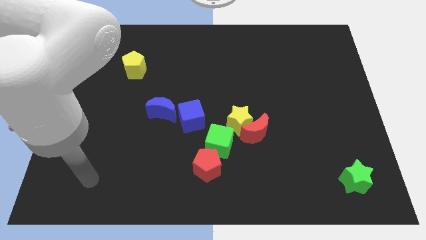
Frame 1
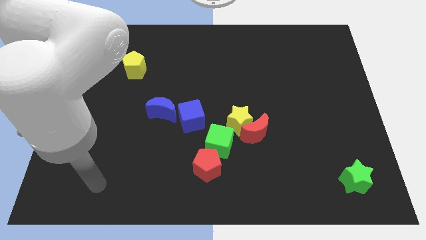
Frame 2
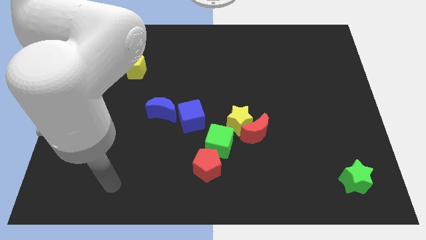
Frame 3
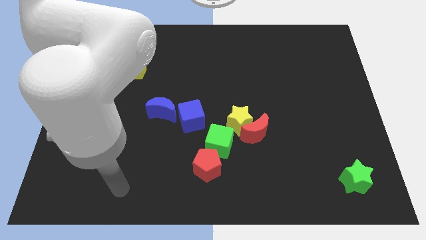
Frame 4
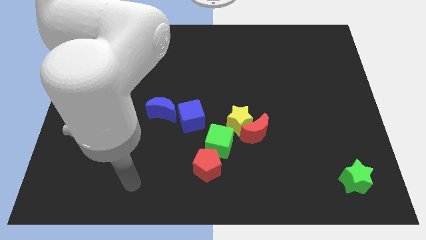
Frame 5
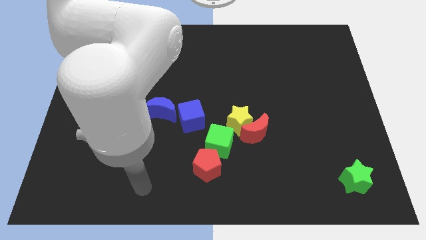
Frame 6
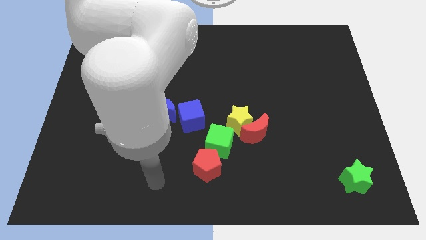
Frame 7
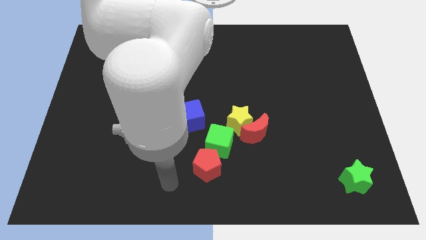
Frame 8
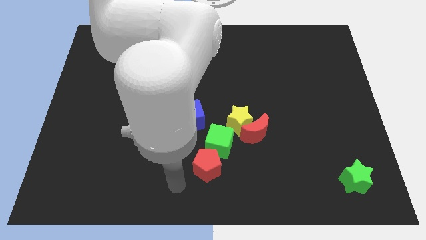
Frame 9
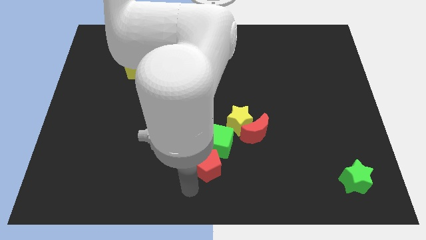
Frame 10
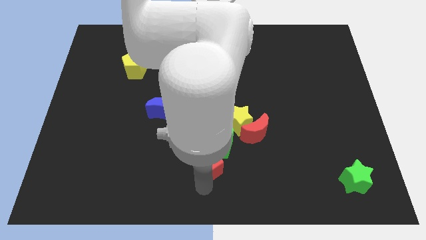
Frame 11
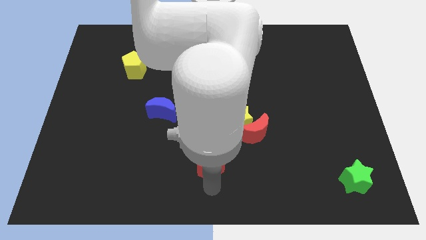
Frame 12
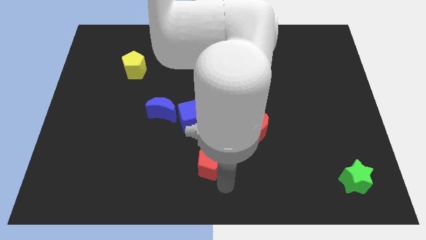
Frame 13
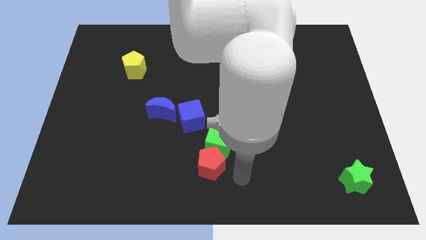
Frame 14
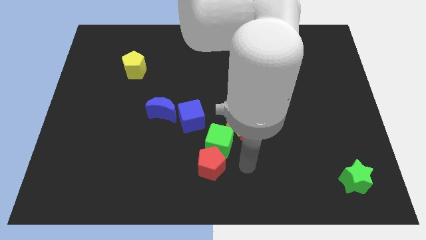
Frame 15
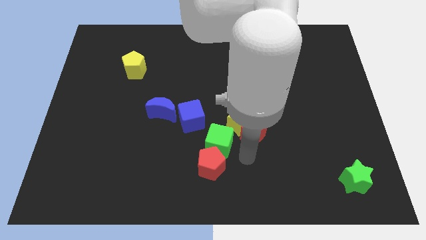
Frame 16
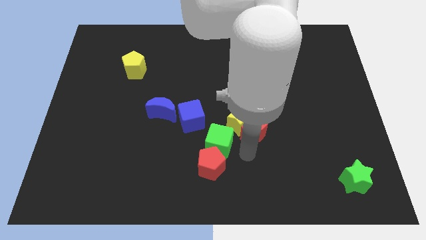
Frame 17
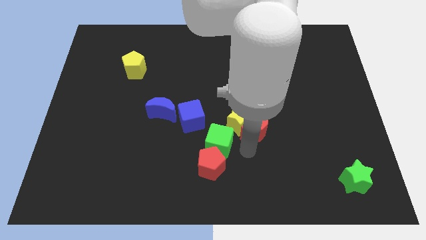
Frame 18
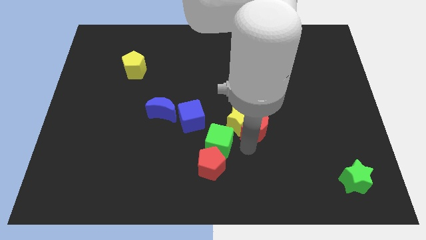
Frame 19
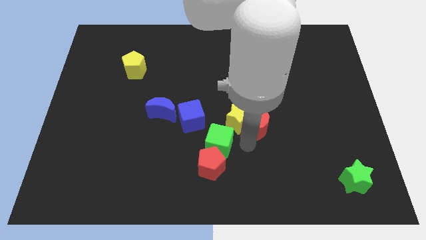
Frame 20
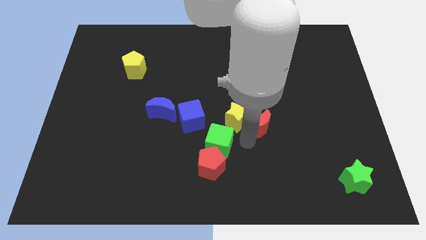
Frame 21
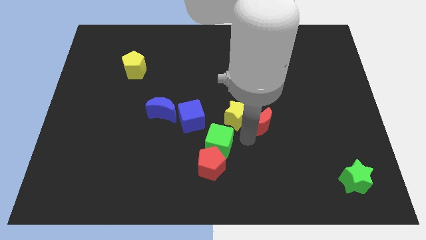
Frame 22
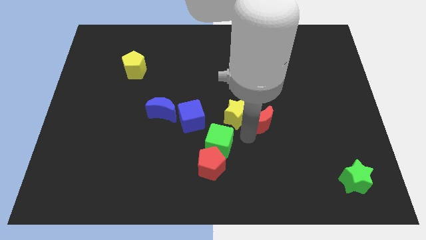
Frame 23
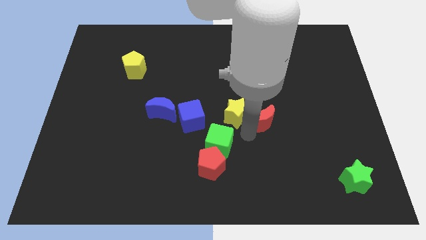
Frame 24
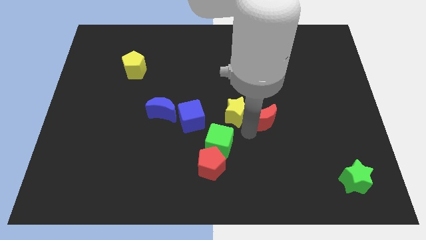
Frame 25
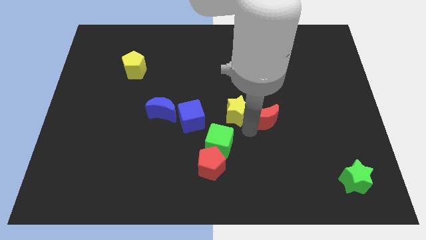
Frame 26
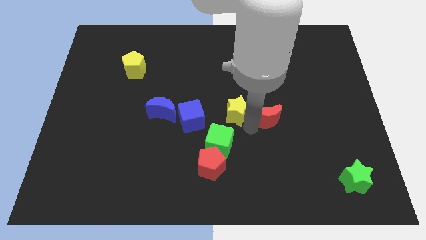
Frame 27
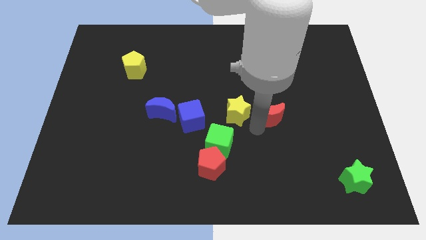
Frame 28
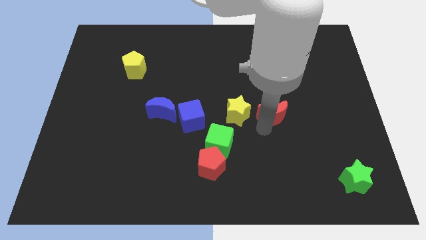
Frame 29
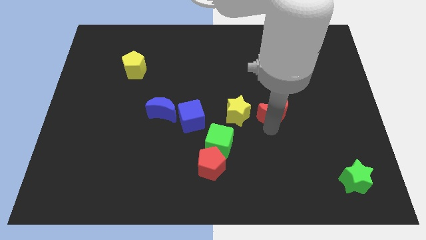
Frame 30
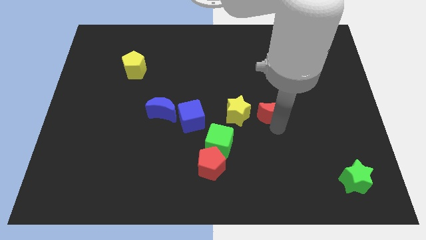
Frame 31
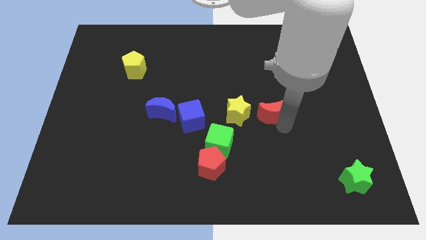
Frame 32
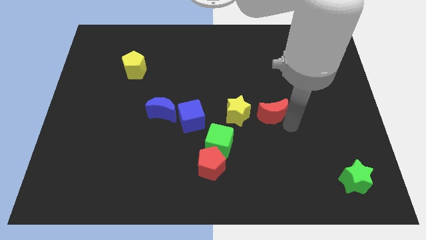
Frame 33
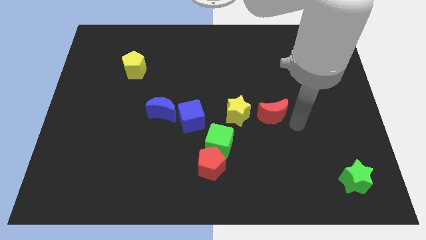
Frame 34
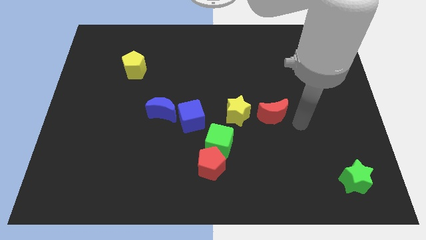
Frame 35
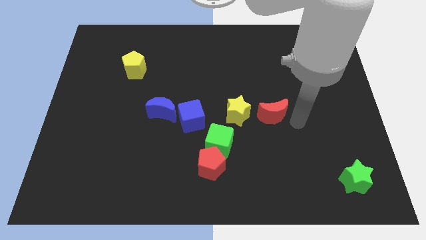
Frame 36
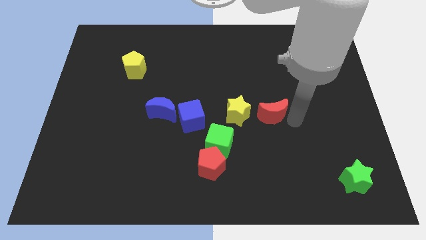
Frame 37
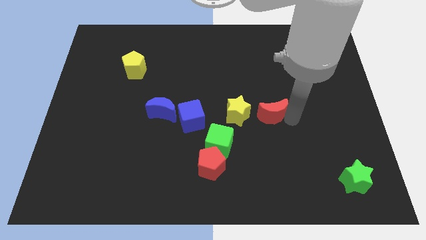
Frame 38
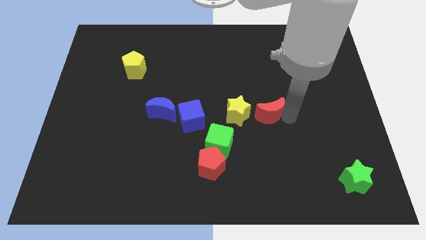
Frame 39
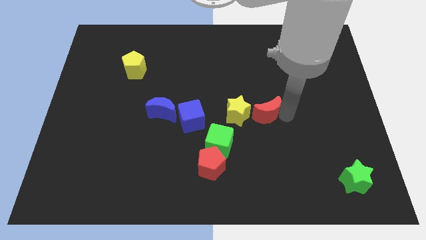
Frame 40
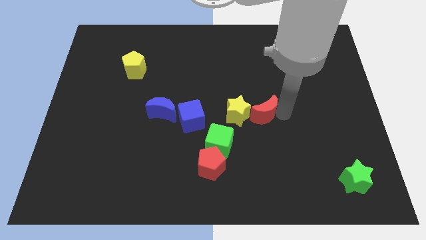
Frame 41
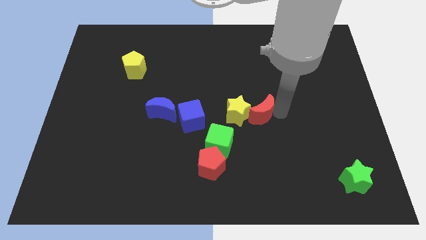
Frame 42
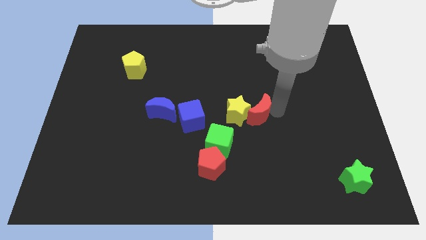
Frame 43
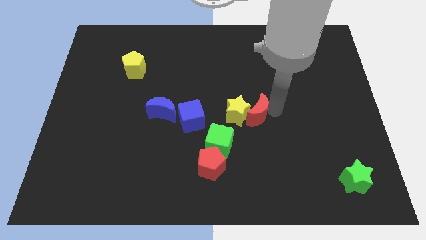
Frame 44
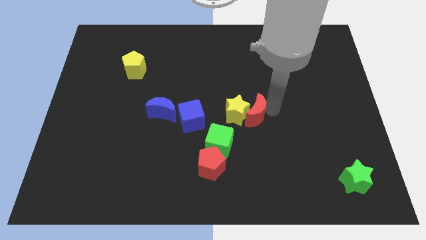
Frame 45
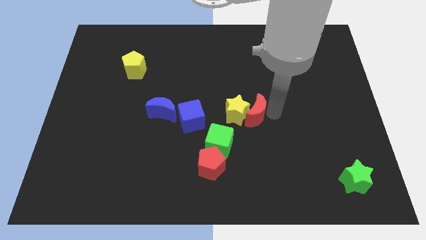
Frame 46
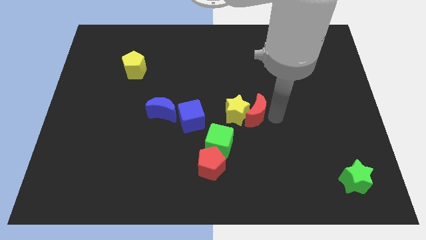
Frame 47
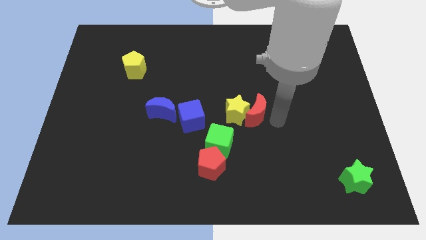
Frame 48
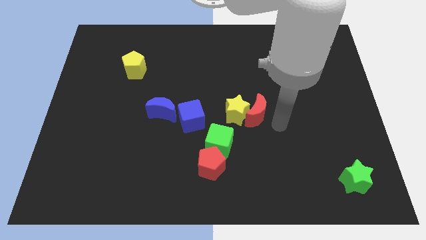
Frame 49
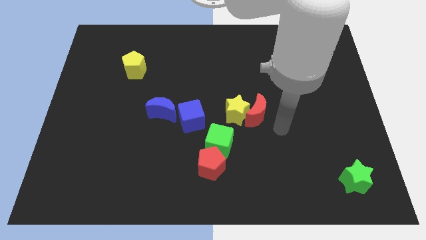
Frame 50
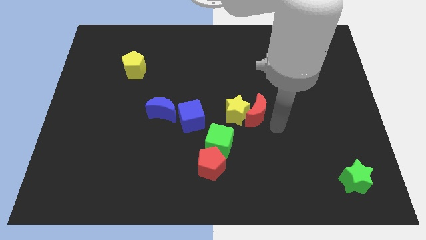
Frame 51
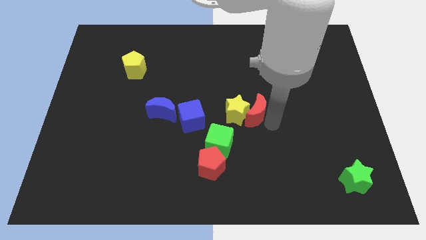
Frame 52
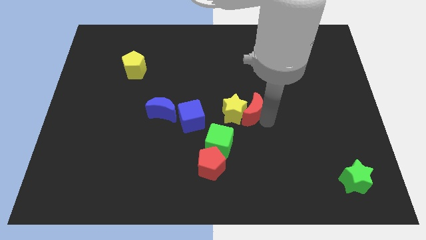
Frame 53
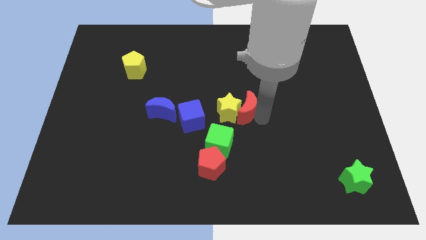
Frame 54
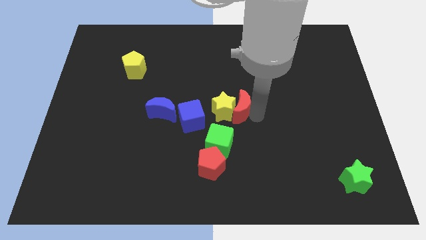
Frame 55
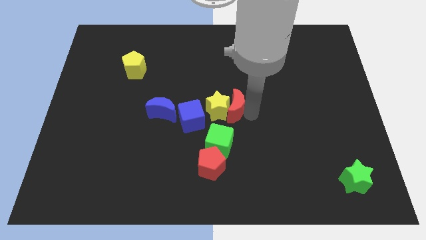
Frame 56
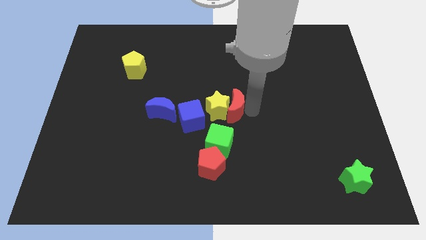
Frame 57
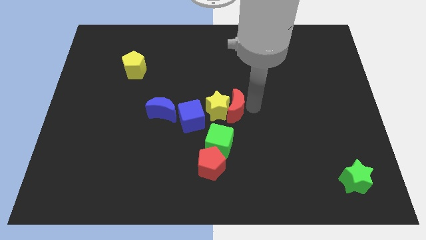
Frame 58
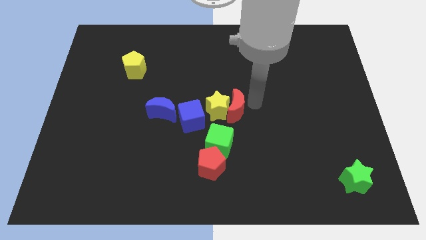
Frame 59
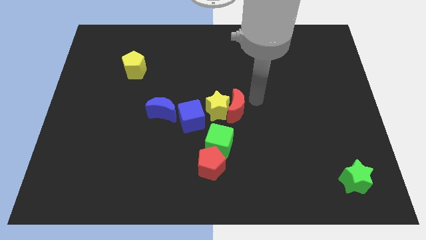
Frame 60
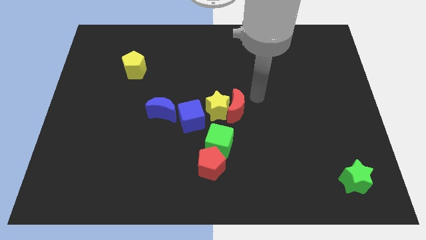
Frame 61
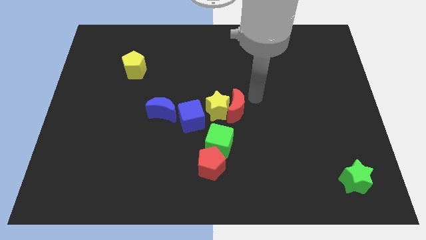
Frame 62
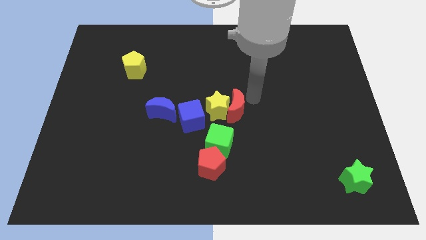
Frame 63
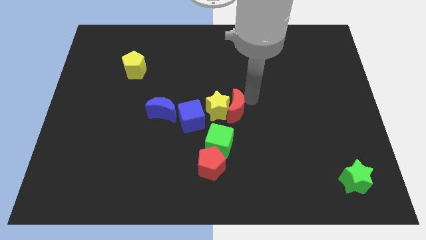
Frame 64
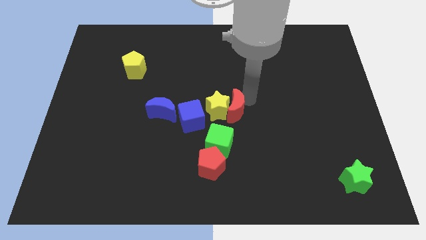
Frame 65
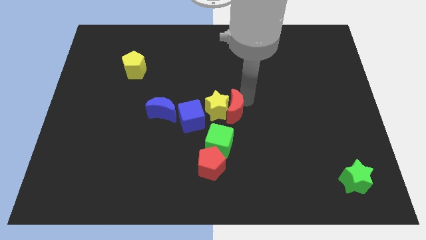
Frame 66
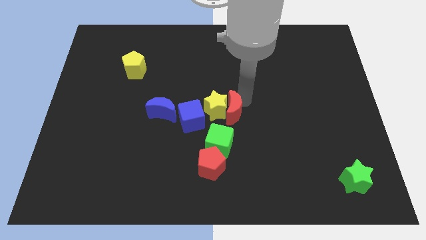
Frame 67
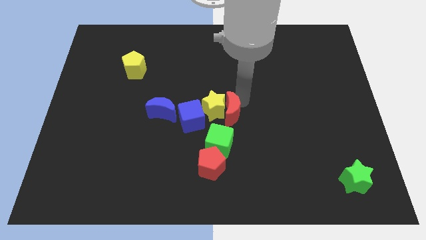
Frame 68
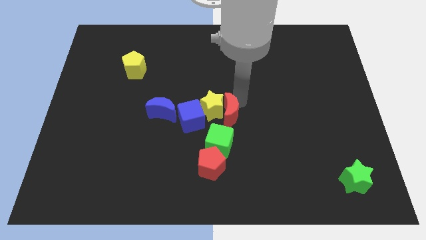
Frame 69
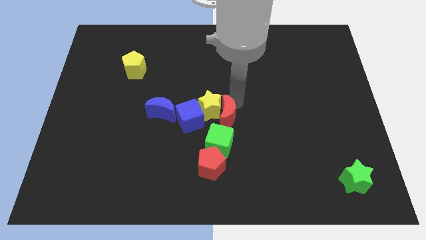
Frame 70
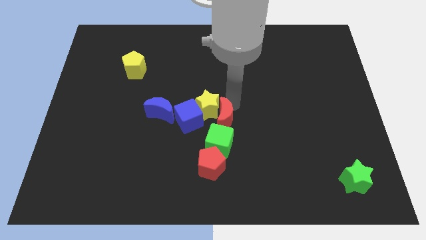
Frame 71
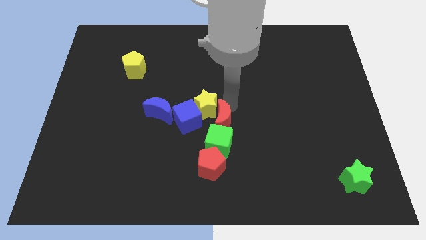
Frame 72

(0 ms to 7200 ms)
move the red moon a bit to the left

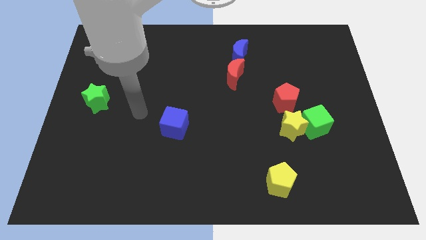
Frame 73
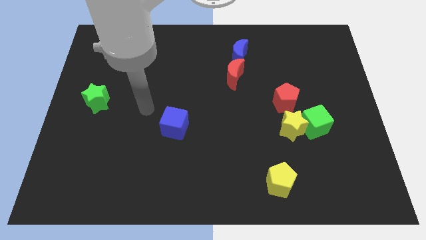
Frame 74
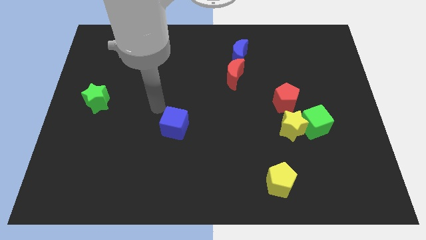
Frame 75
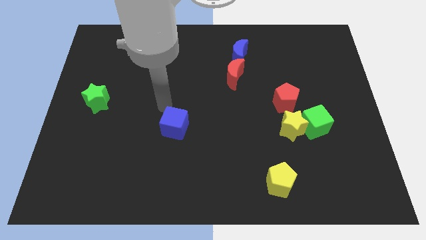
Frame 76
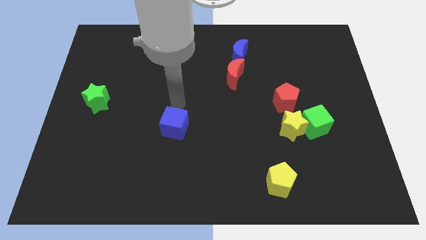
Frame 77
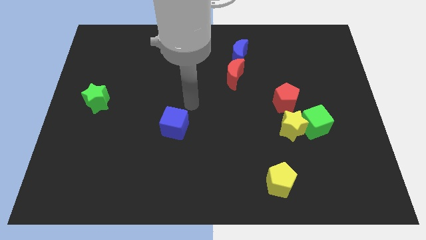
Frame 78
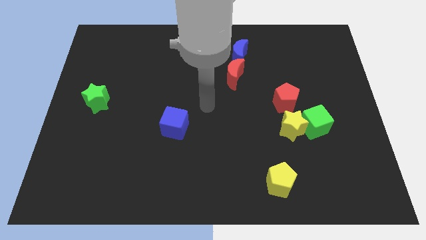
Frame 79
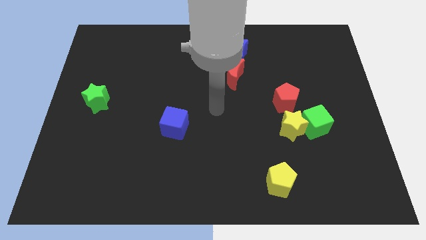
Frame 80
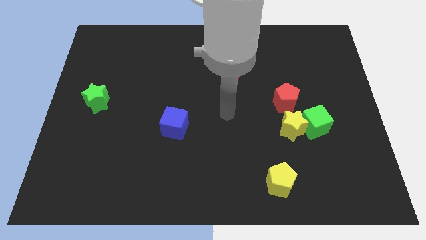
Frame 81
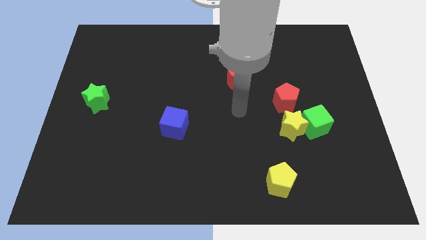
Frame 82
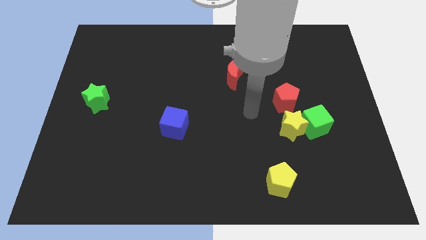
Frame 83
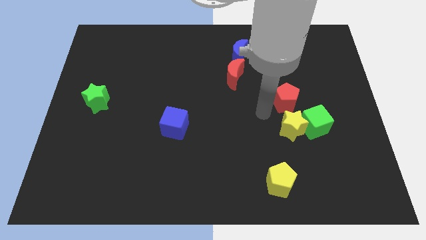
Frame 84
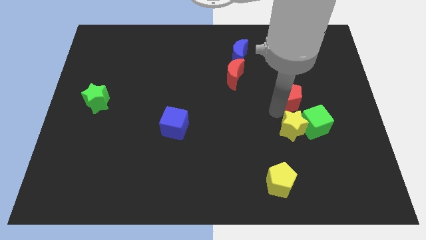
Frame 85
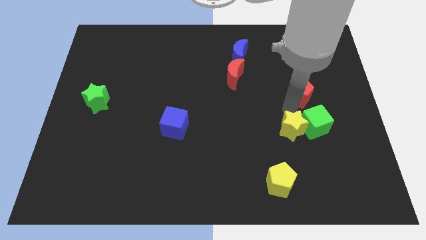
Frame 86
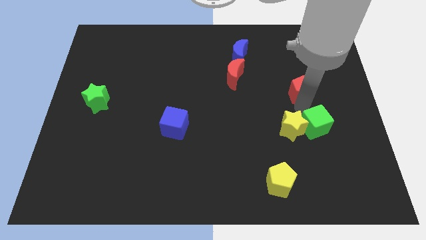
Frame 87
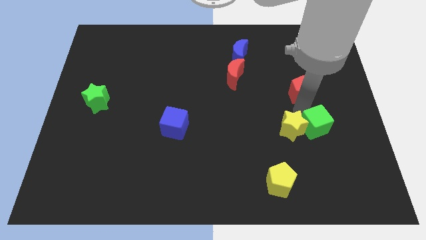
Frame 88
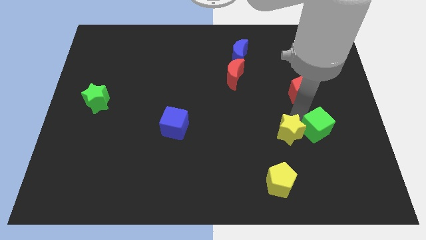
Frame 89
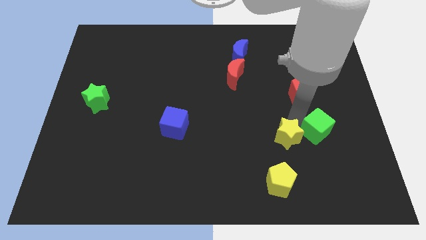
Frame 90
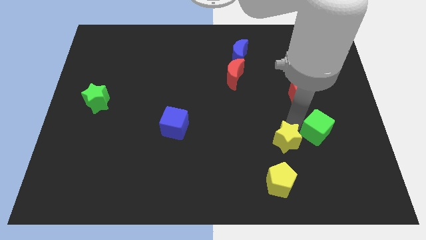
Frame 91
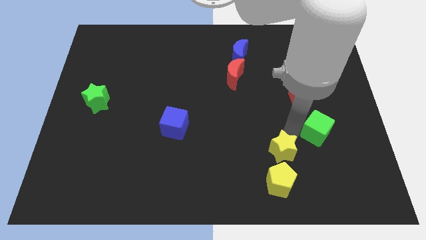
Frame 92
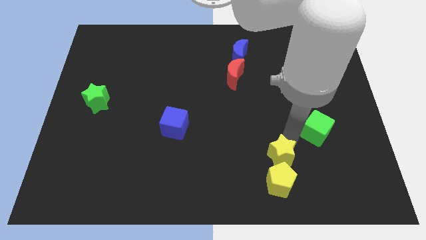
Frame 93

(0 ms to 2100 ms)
slide the yellow star slightly diagonally downwards and left
